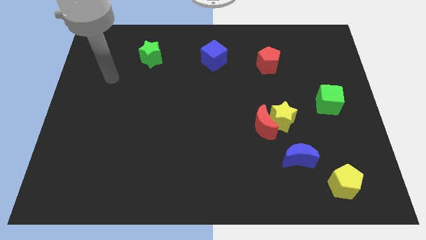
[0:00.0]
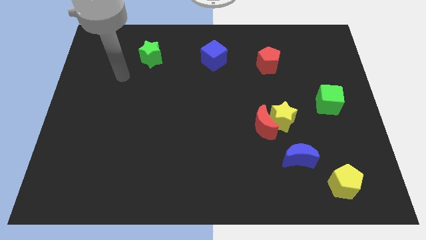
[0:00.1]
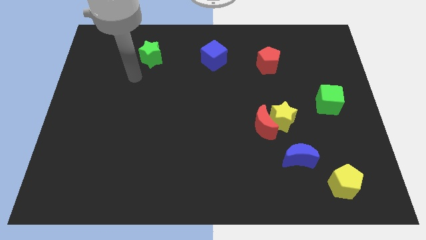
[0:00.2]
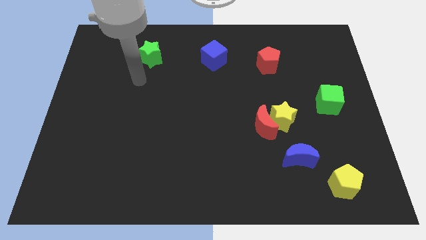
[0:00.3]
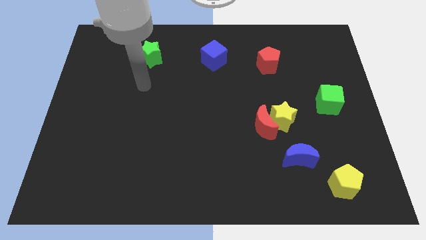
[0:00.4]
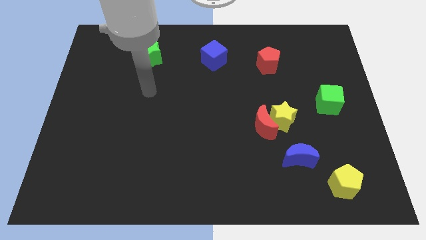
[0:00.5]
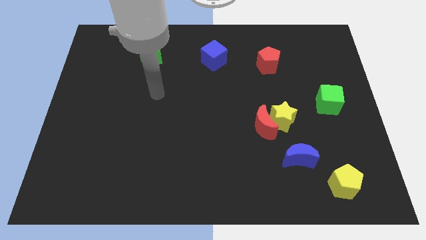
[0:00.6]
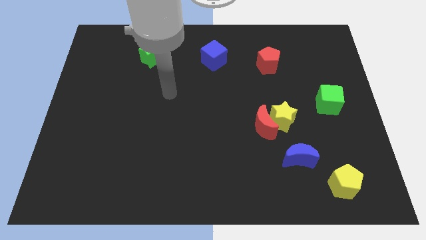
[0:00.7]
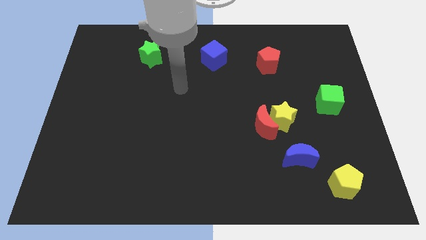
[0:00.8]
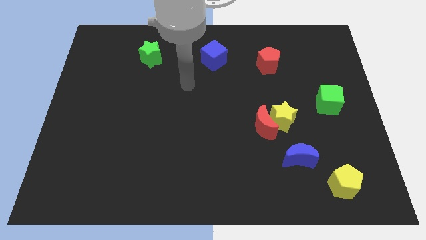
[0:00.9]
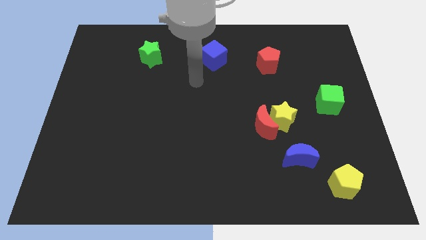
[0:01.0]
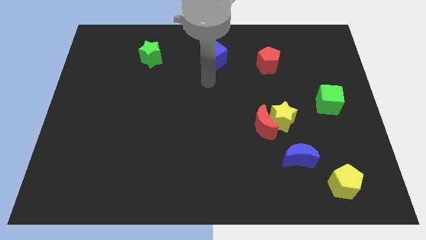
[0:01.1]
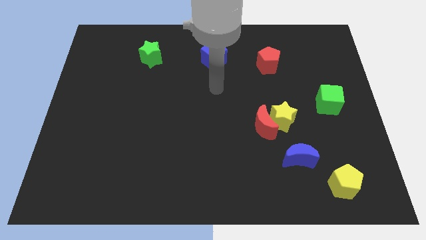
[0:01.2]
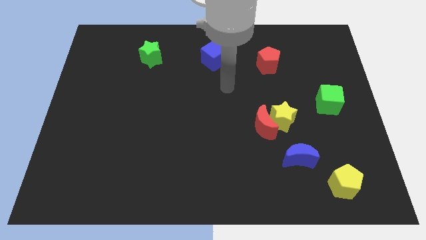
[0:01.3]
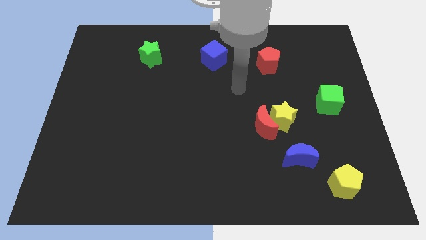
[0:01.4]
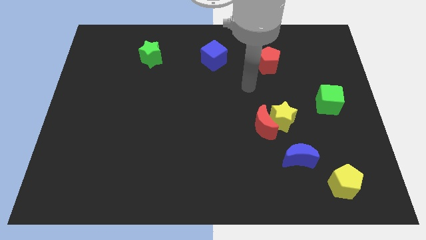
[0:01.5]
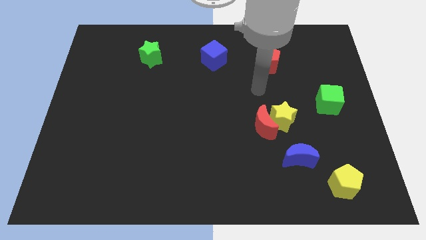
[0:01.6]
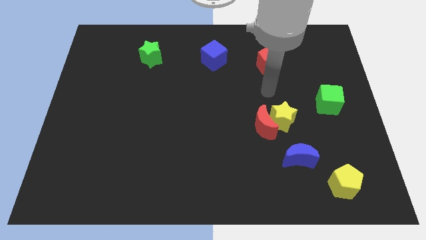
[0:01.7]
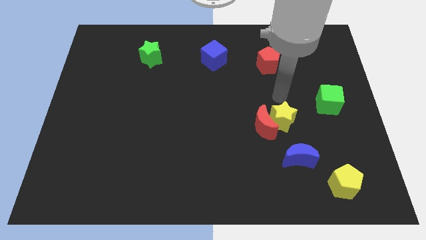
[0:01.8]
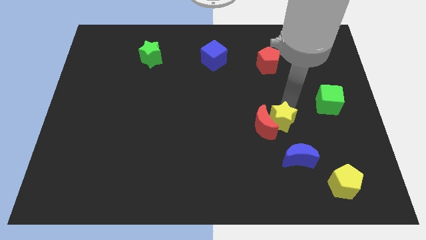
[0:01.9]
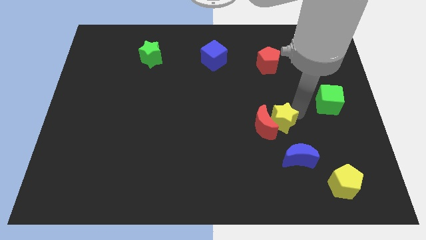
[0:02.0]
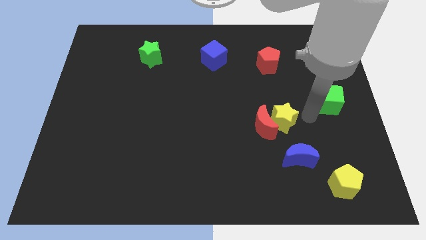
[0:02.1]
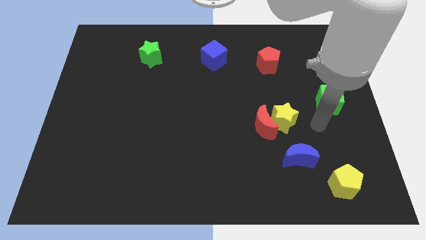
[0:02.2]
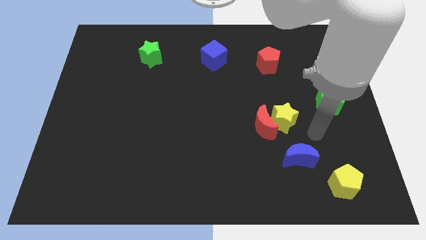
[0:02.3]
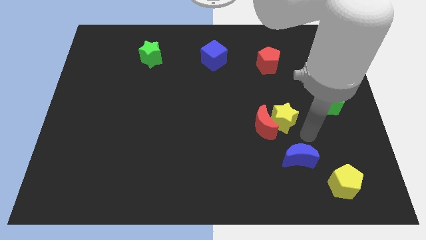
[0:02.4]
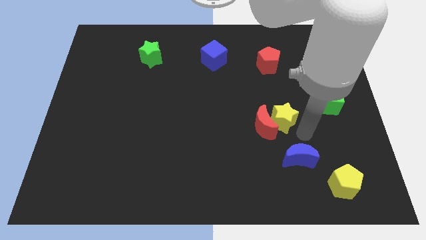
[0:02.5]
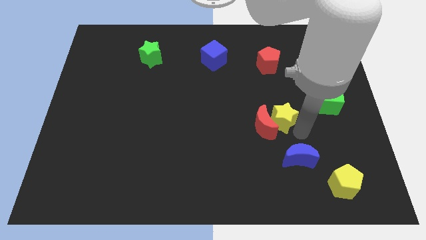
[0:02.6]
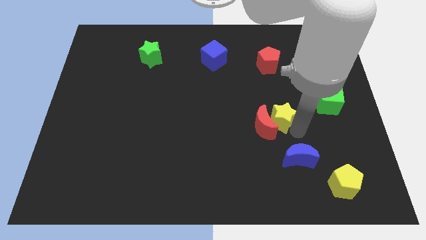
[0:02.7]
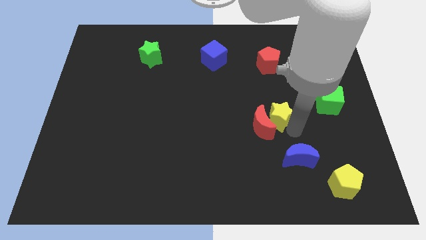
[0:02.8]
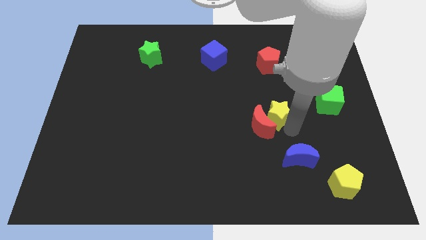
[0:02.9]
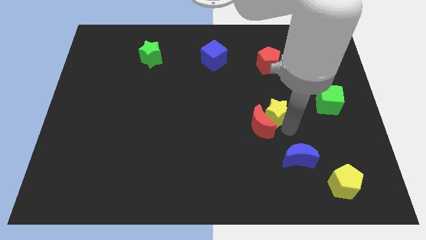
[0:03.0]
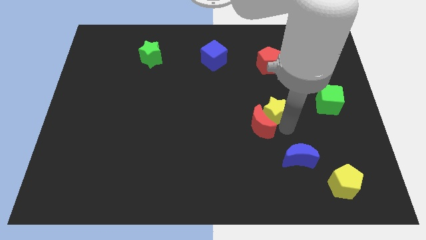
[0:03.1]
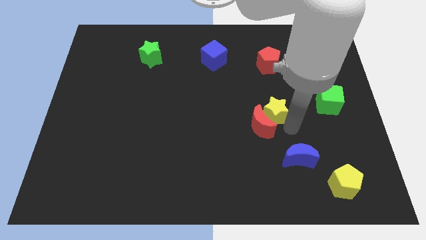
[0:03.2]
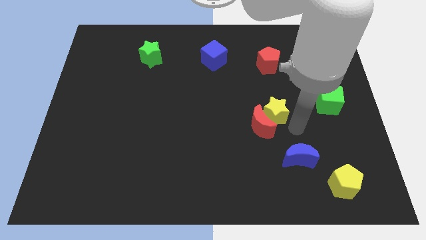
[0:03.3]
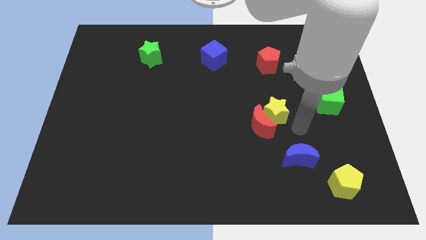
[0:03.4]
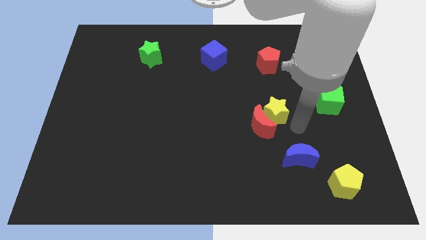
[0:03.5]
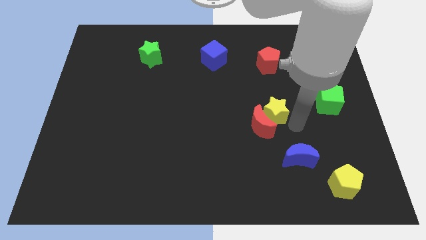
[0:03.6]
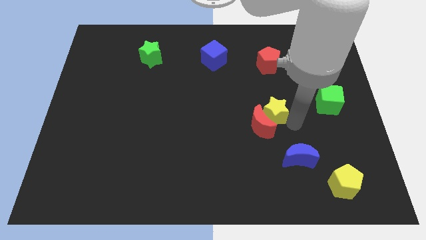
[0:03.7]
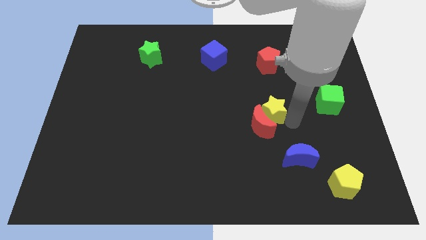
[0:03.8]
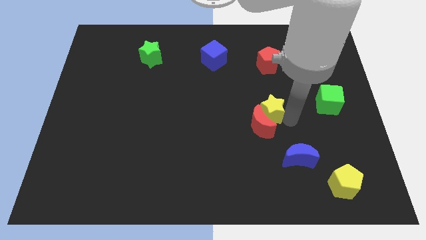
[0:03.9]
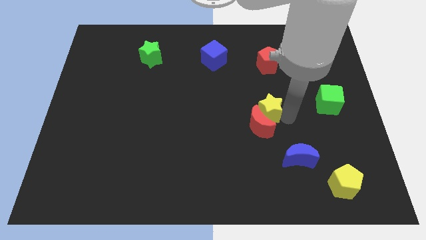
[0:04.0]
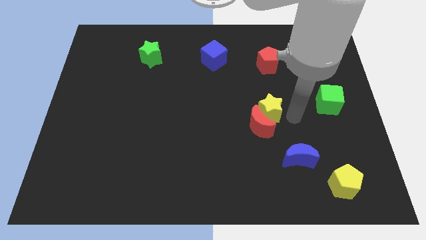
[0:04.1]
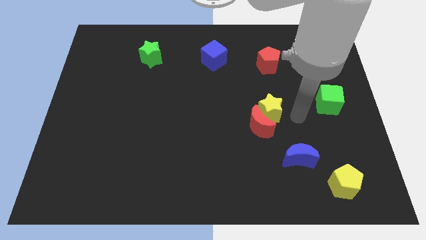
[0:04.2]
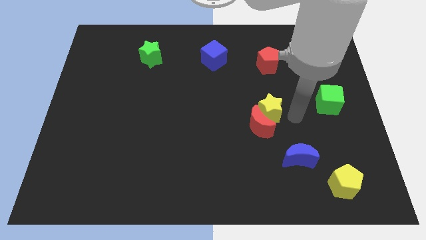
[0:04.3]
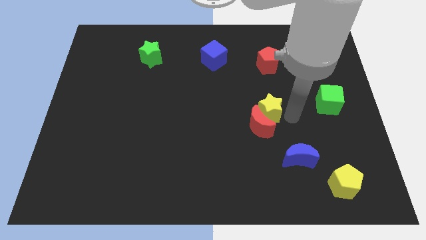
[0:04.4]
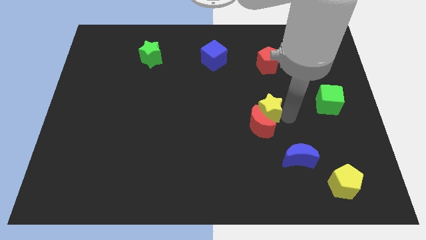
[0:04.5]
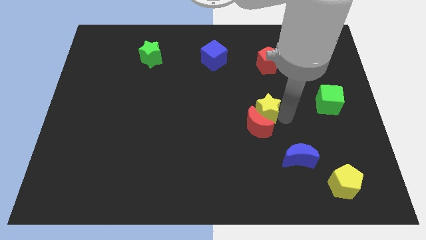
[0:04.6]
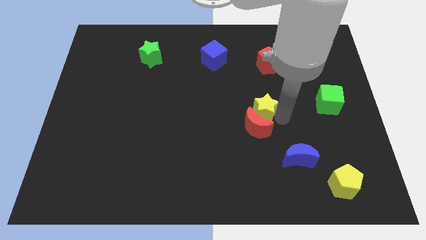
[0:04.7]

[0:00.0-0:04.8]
push the yellow star to the center of the board

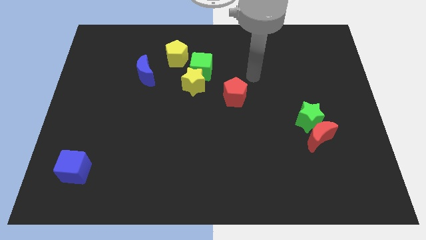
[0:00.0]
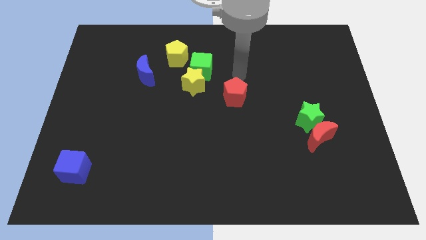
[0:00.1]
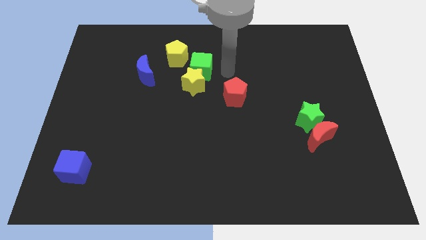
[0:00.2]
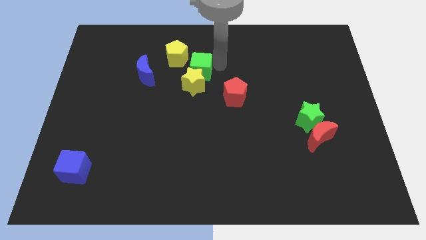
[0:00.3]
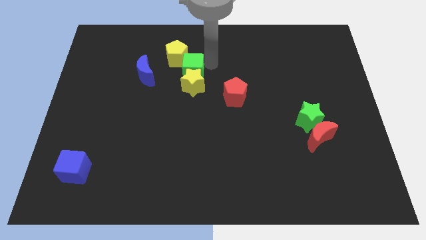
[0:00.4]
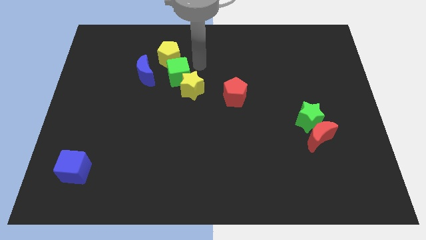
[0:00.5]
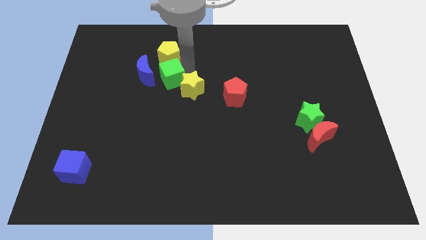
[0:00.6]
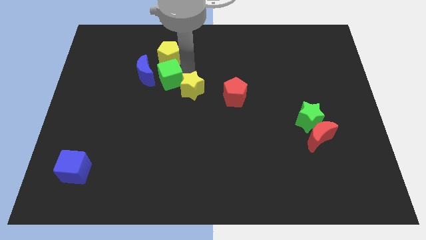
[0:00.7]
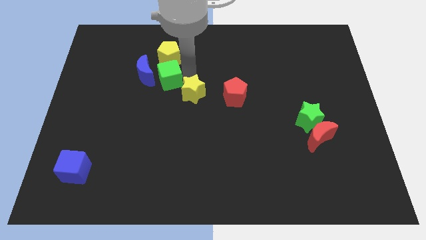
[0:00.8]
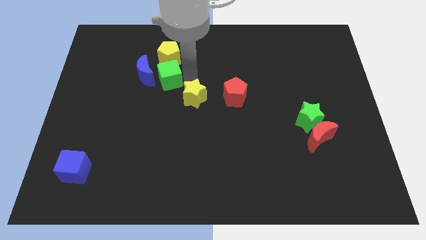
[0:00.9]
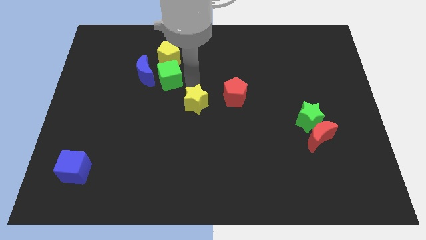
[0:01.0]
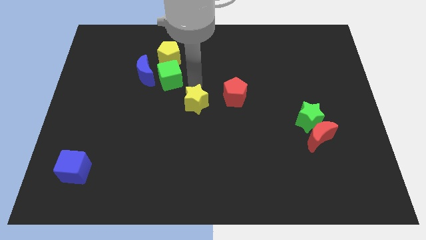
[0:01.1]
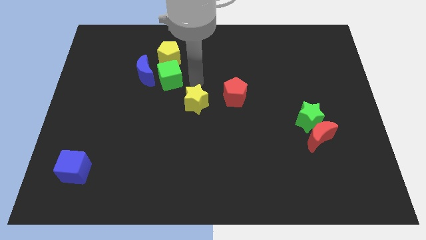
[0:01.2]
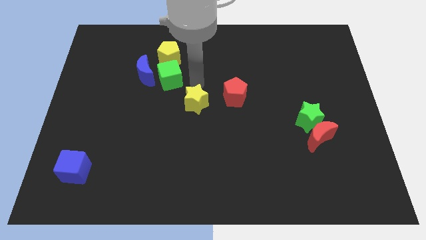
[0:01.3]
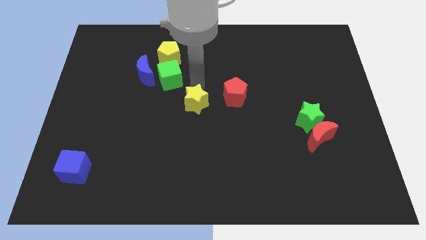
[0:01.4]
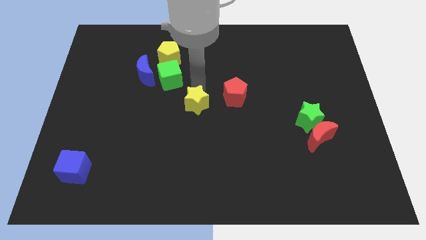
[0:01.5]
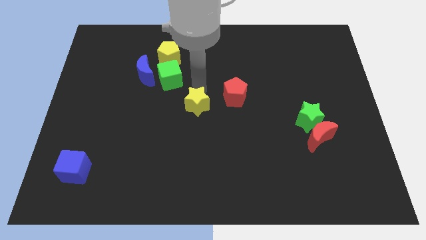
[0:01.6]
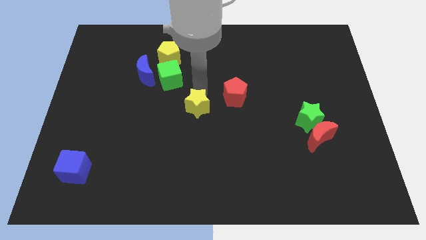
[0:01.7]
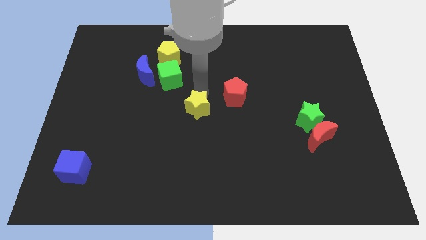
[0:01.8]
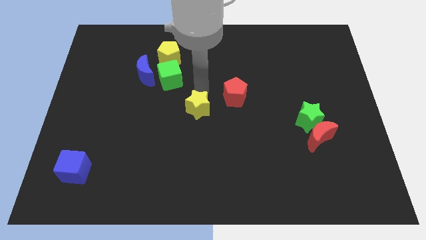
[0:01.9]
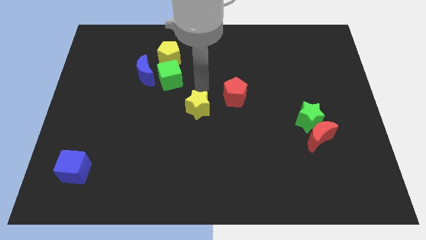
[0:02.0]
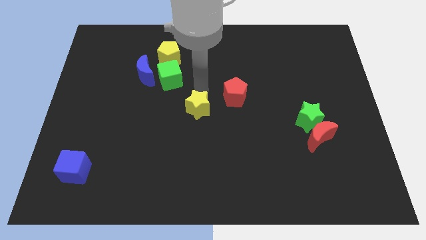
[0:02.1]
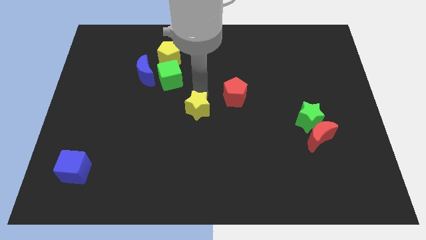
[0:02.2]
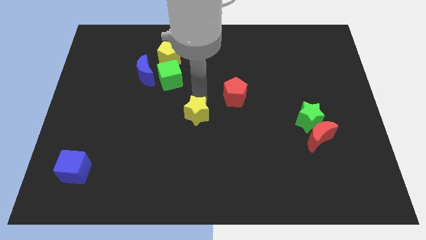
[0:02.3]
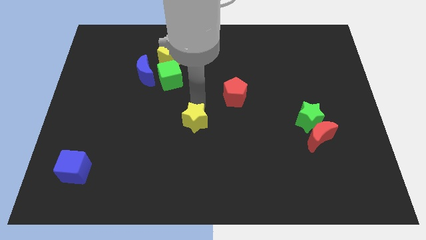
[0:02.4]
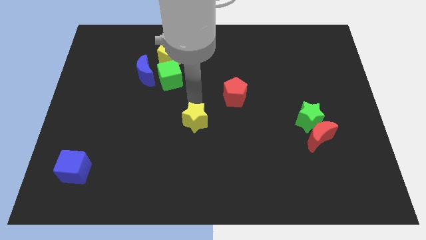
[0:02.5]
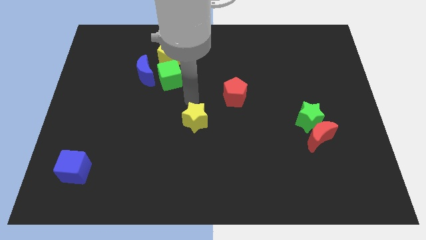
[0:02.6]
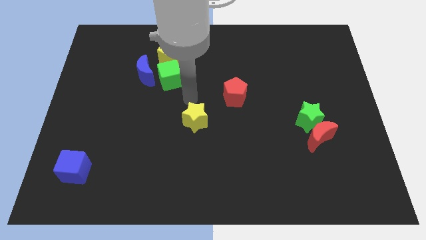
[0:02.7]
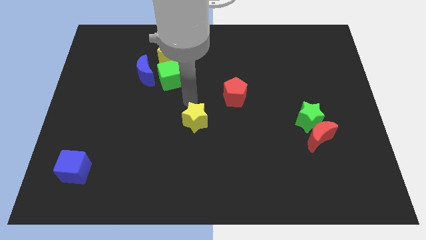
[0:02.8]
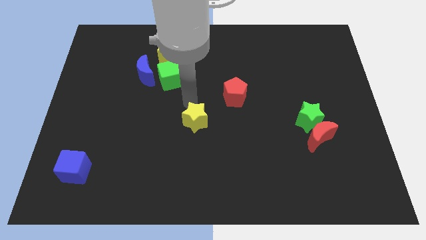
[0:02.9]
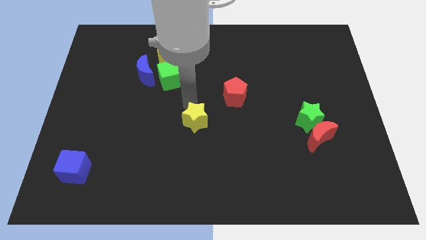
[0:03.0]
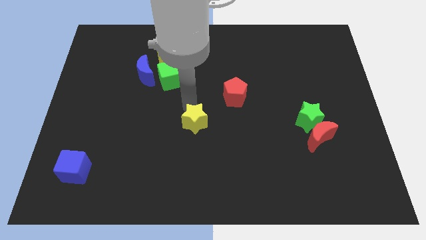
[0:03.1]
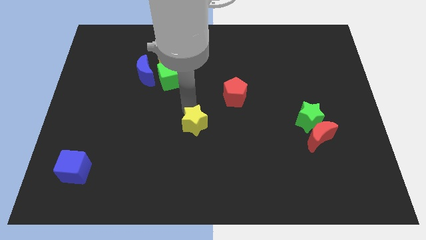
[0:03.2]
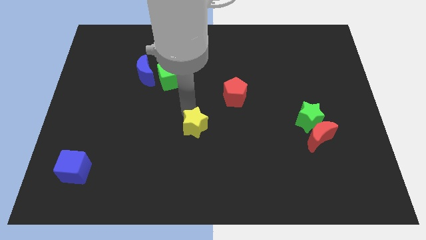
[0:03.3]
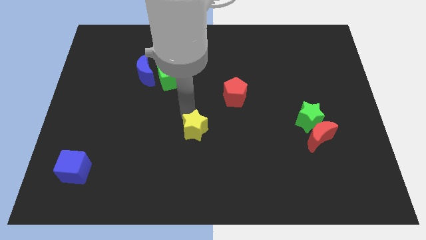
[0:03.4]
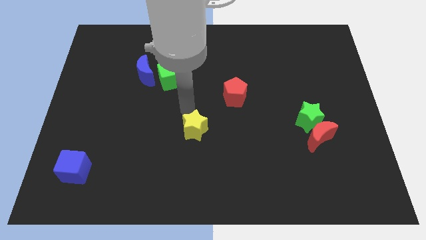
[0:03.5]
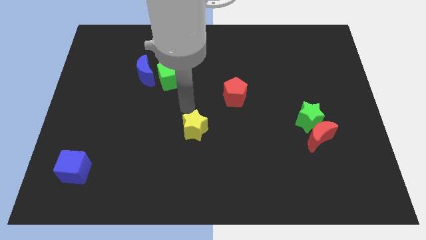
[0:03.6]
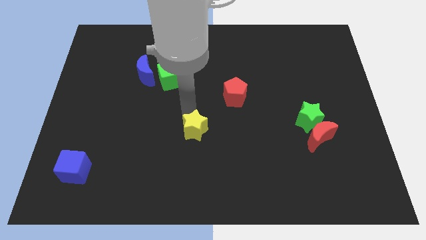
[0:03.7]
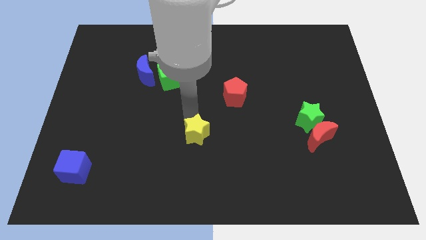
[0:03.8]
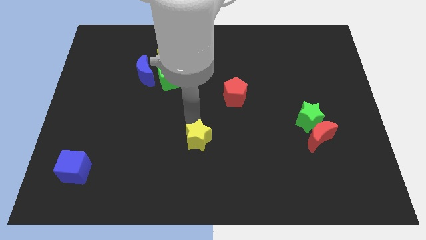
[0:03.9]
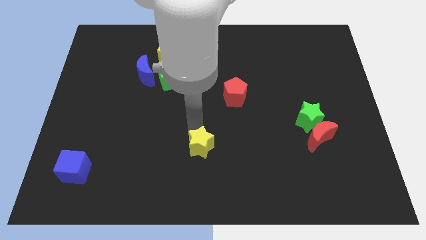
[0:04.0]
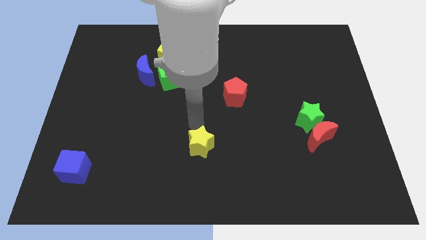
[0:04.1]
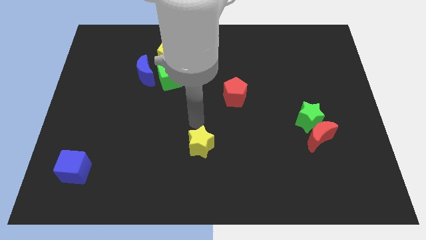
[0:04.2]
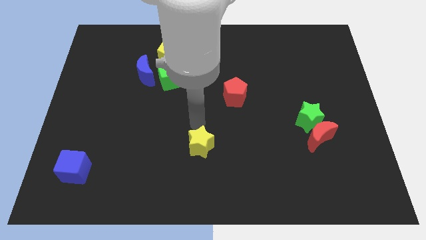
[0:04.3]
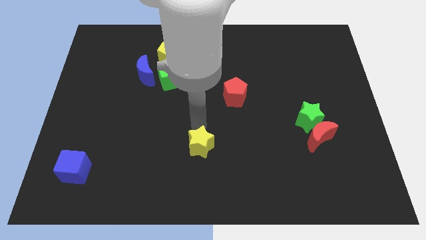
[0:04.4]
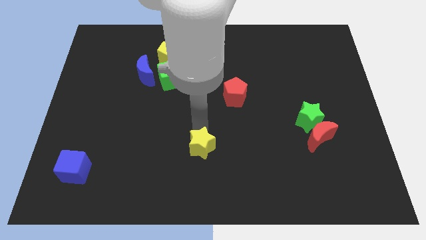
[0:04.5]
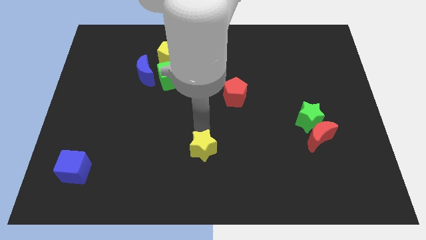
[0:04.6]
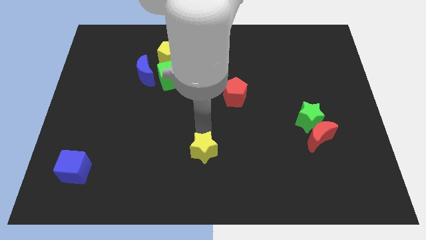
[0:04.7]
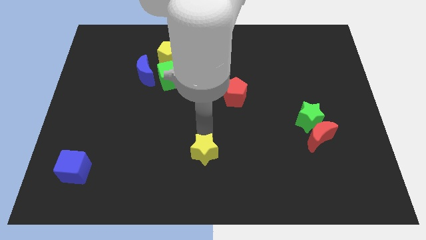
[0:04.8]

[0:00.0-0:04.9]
put the yellow star to the bottom
